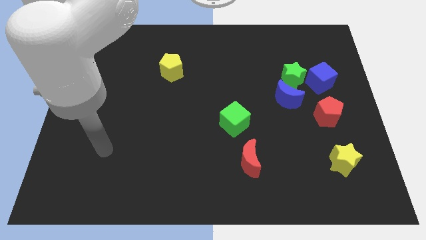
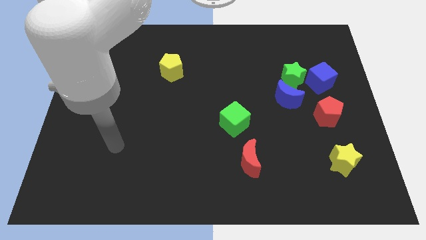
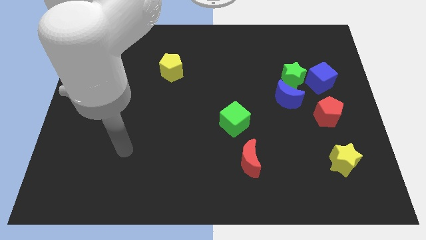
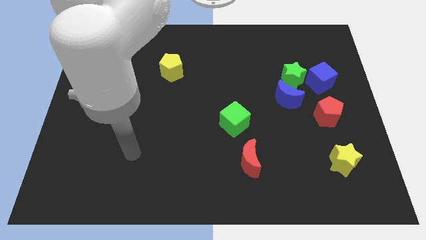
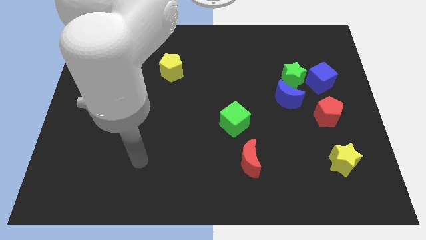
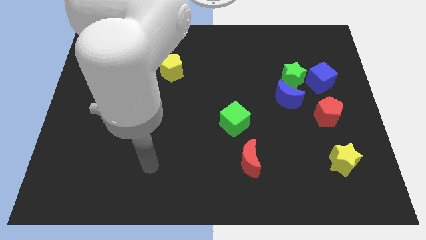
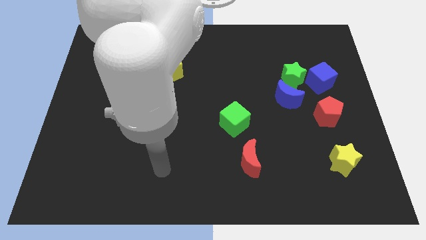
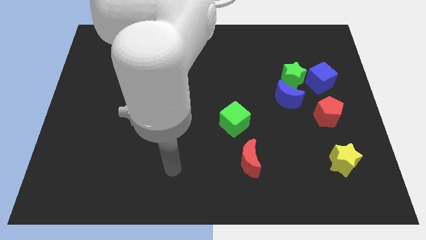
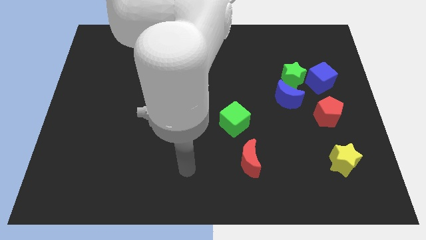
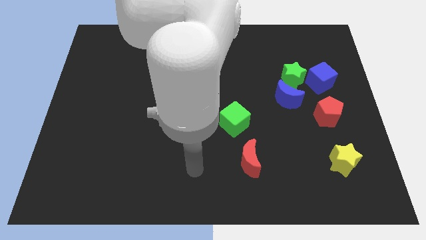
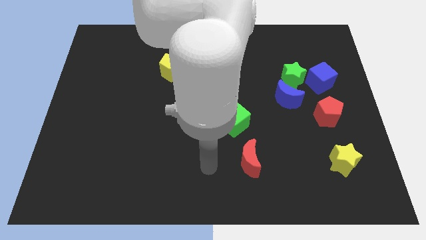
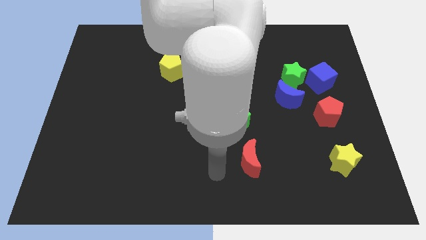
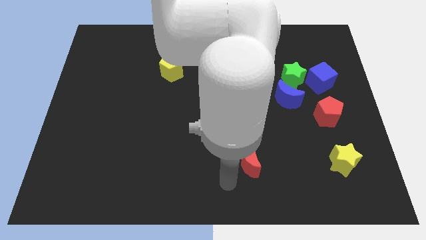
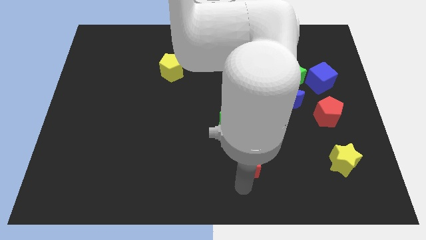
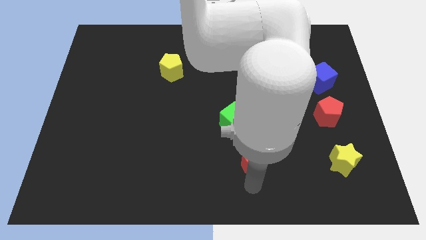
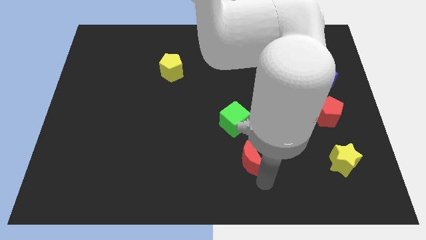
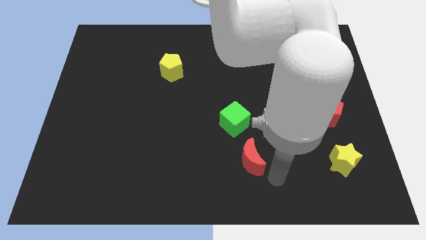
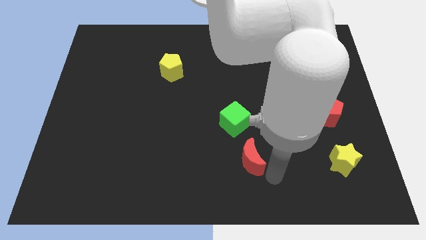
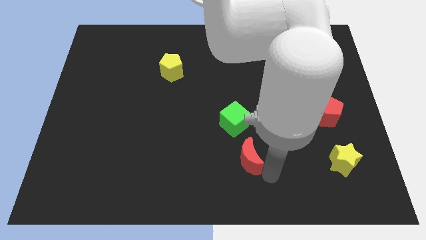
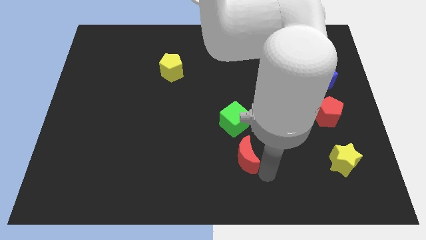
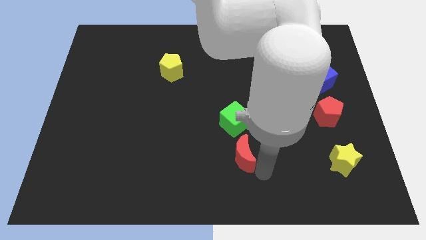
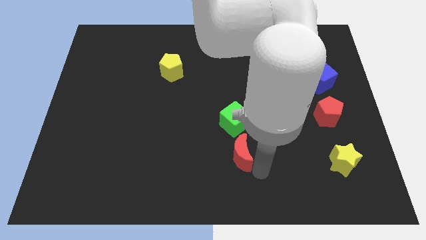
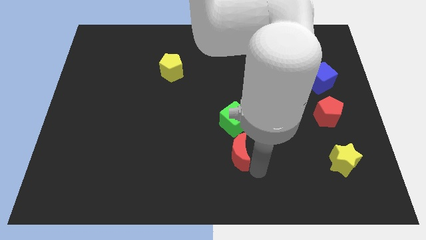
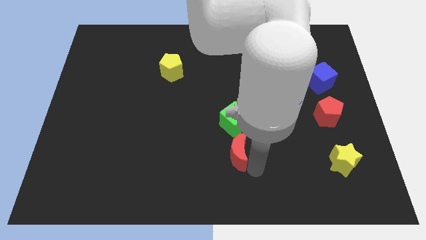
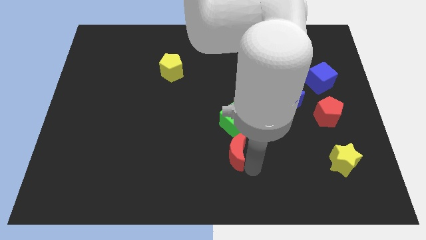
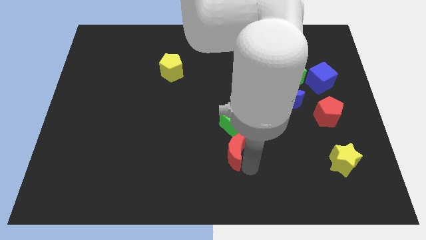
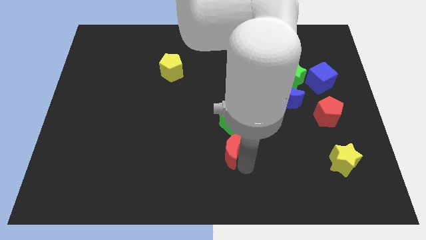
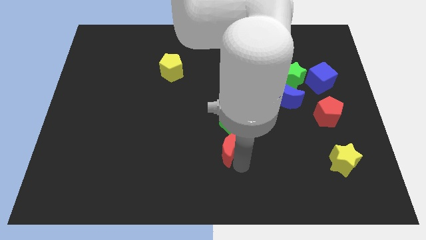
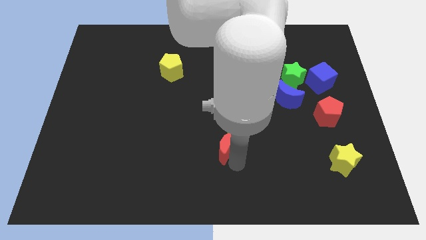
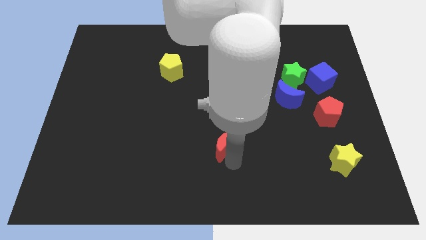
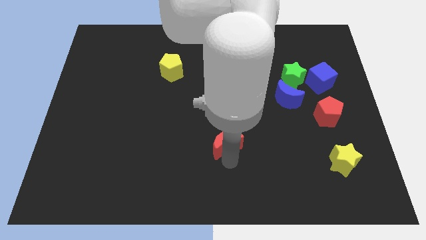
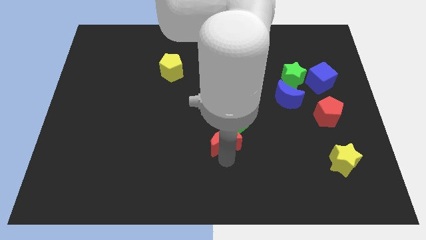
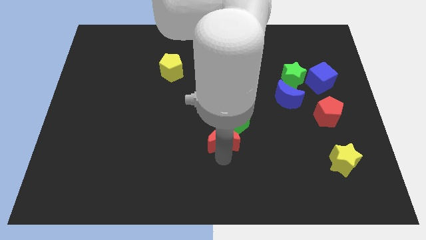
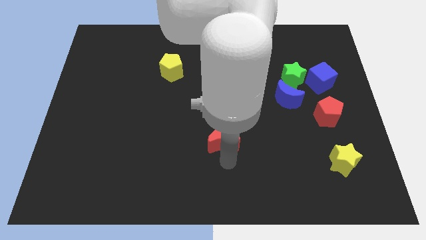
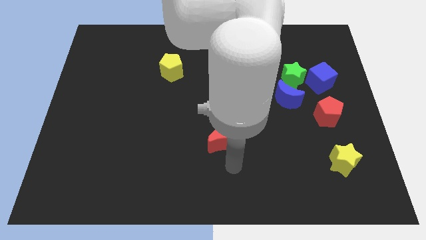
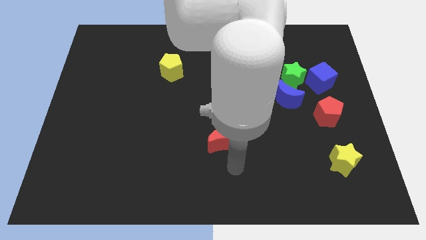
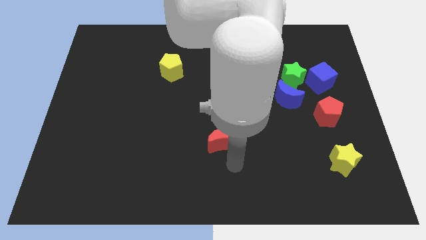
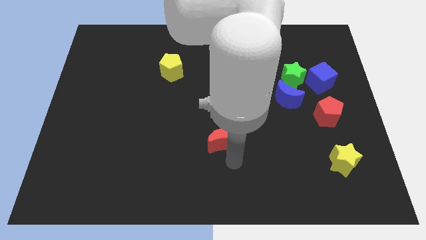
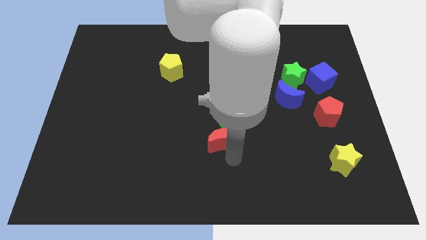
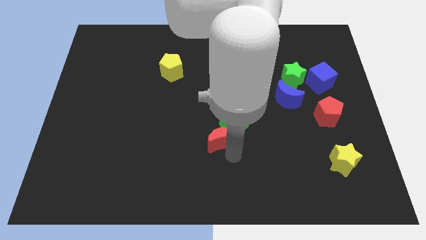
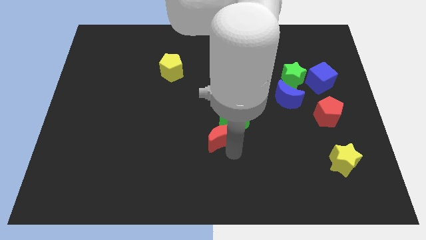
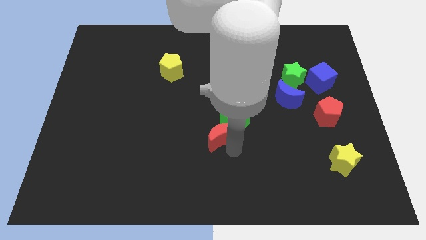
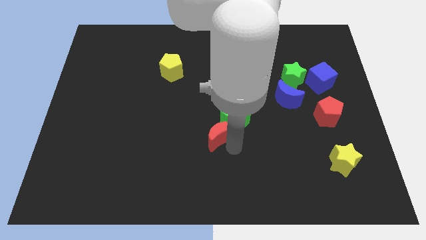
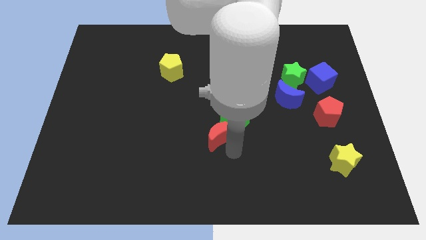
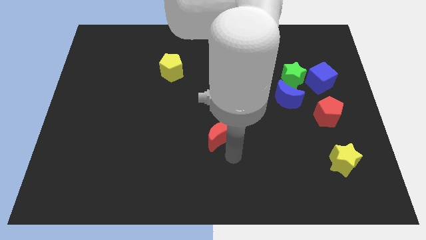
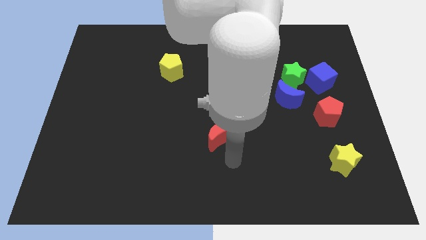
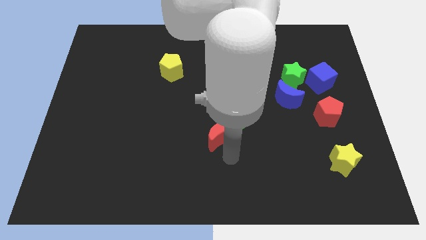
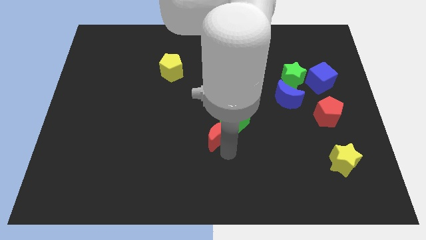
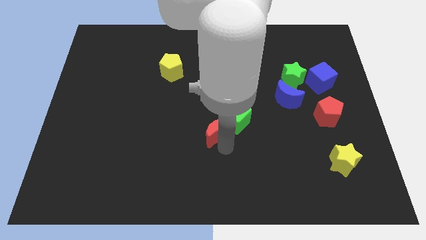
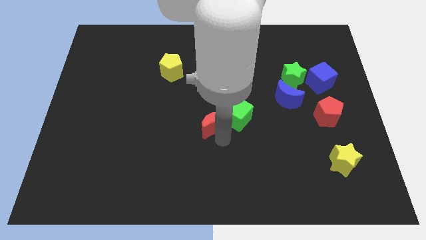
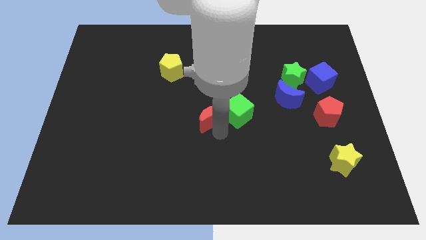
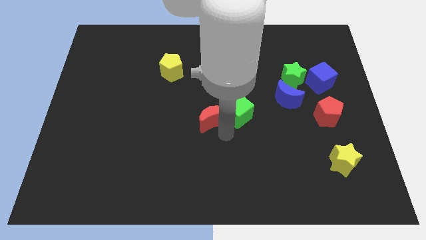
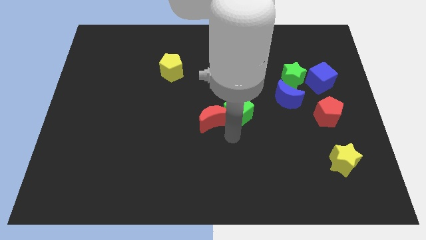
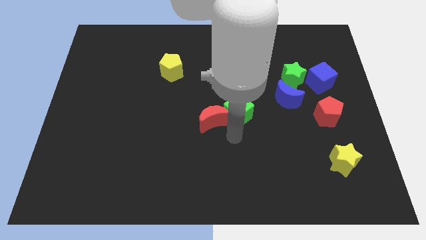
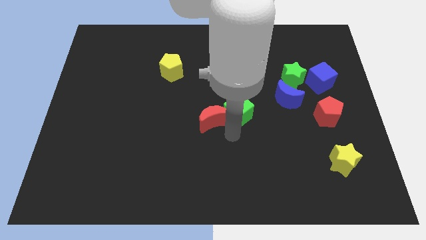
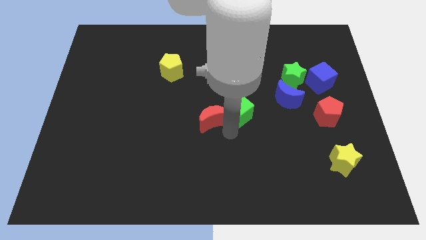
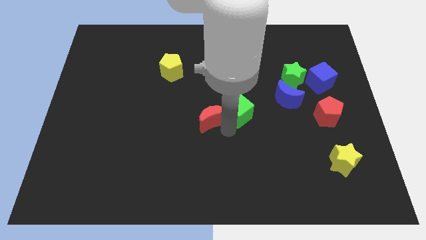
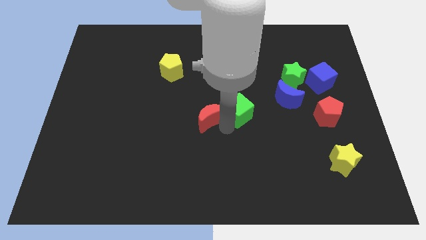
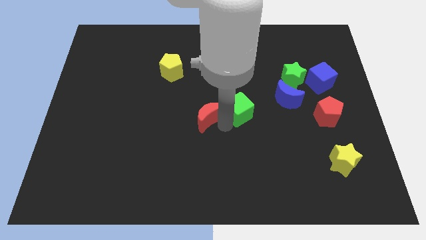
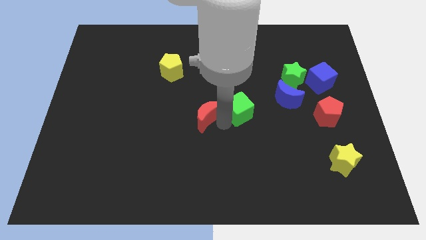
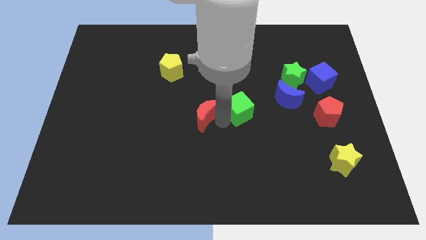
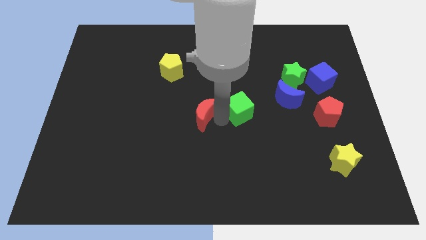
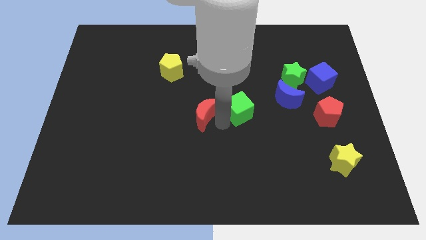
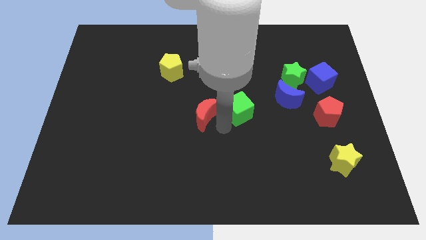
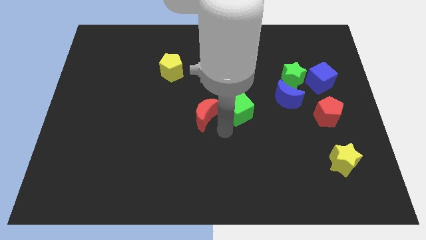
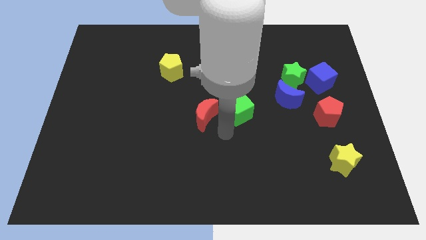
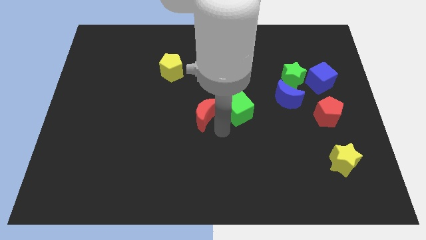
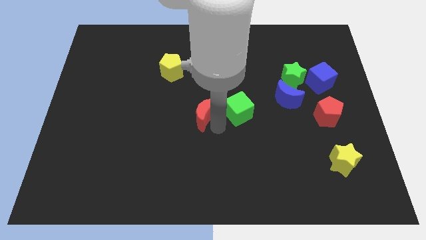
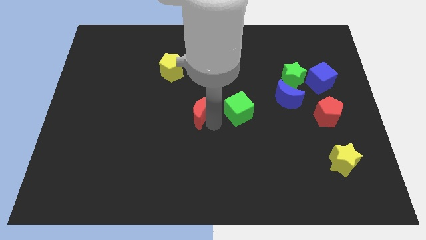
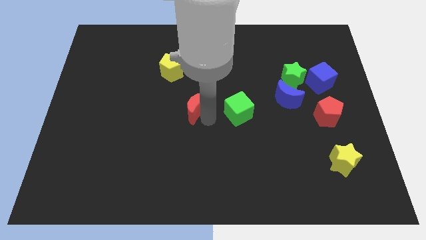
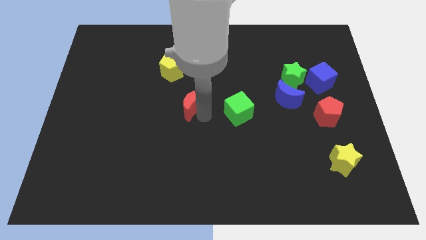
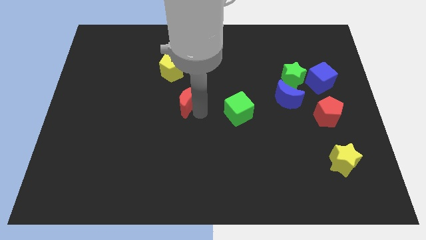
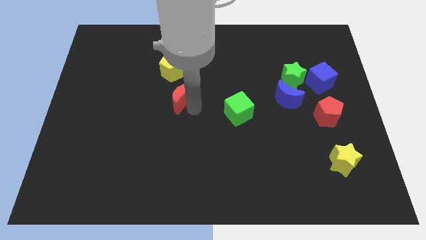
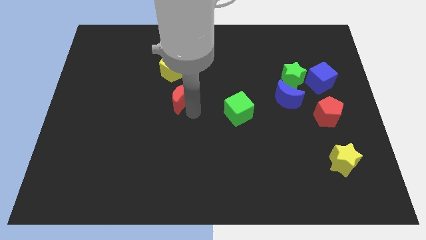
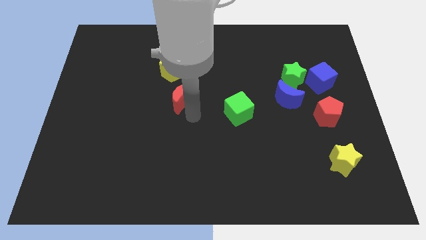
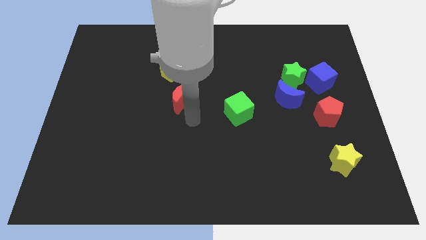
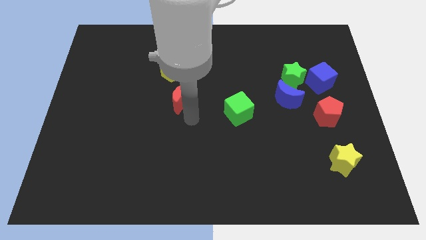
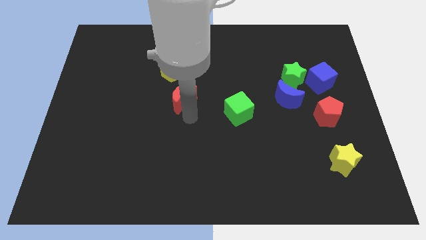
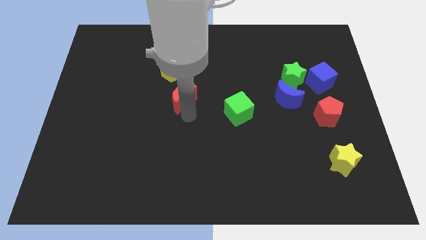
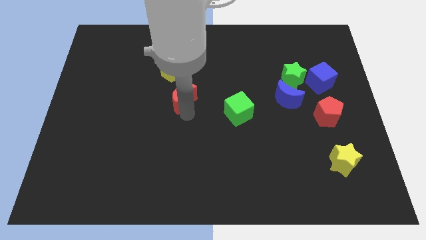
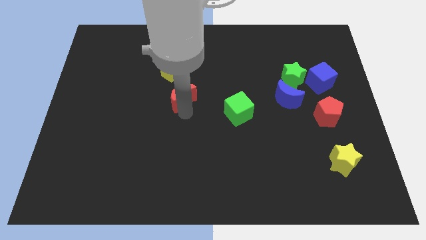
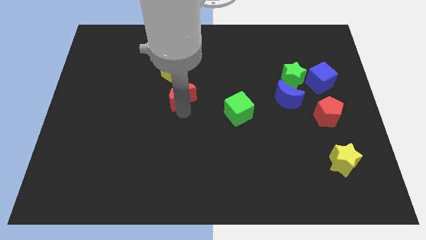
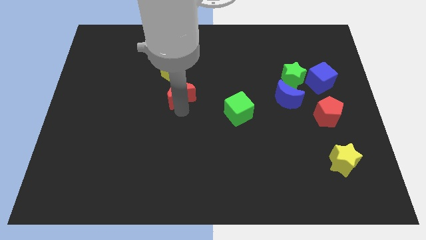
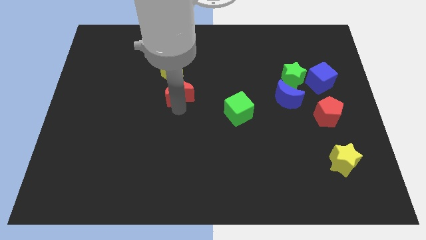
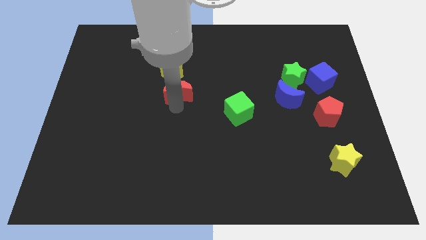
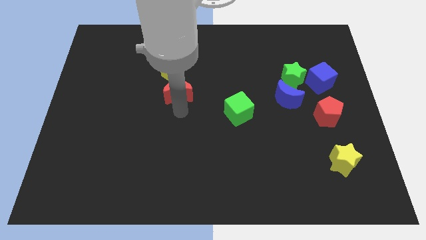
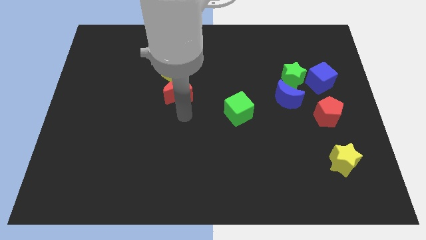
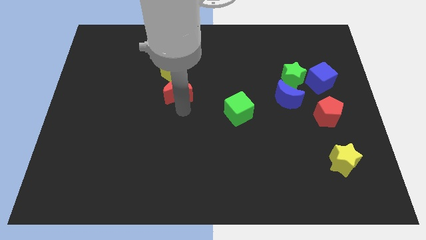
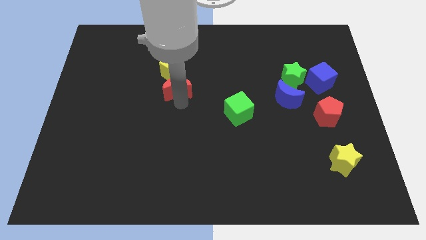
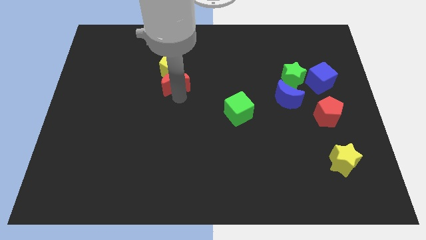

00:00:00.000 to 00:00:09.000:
slide the red moon next to the yellow pentagon
